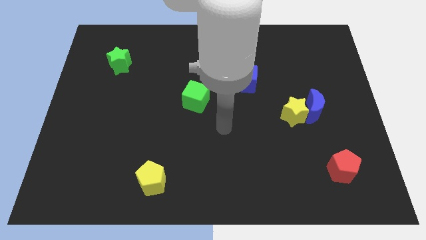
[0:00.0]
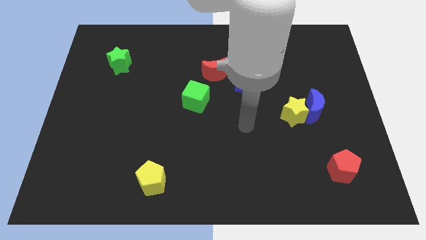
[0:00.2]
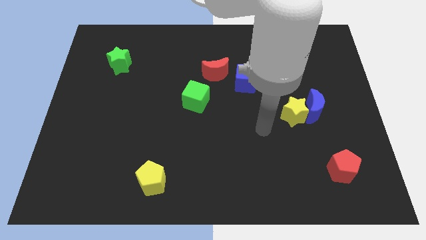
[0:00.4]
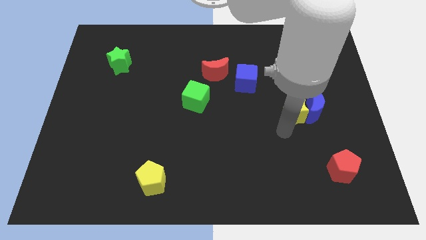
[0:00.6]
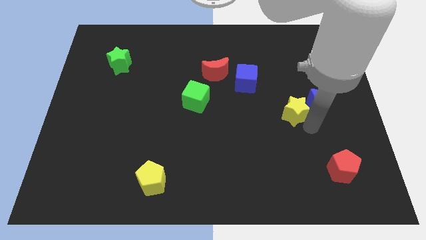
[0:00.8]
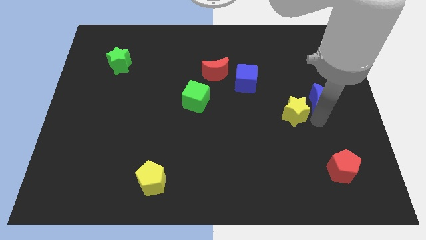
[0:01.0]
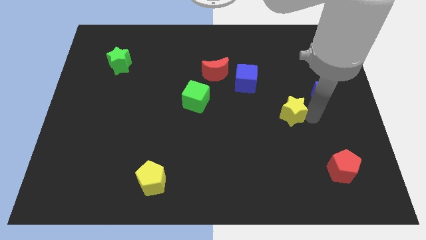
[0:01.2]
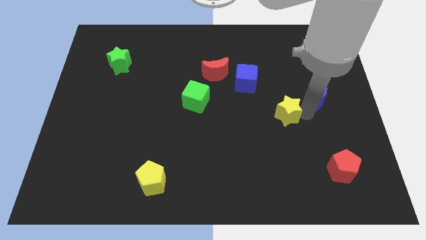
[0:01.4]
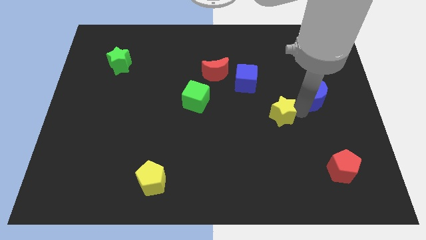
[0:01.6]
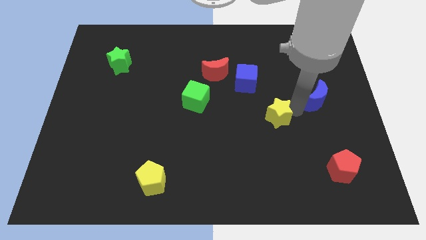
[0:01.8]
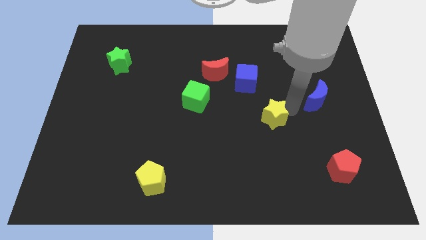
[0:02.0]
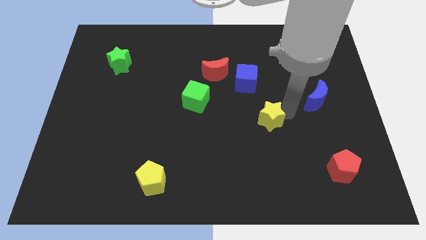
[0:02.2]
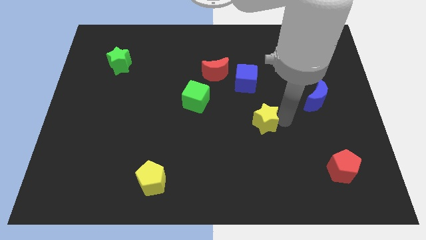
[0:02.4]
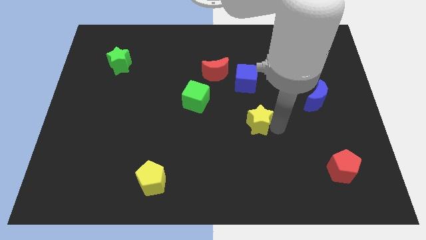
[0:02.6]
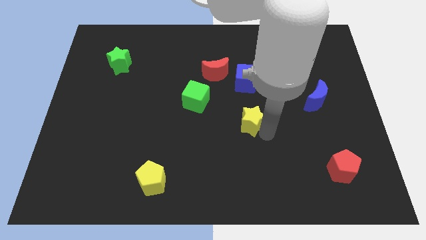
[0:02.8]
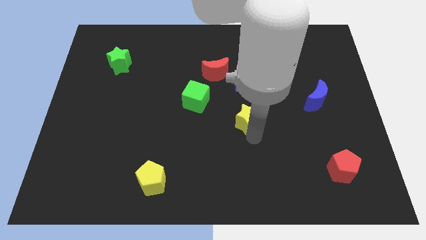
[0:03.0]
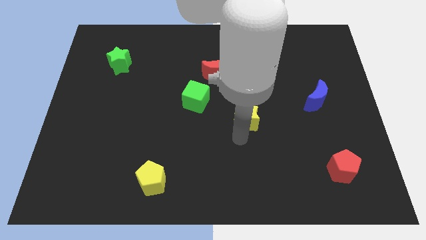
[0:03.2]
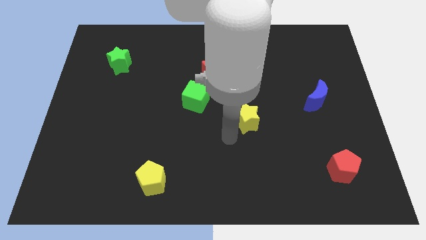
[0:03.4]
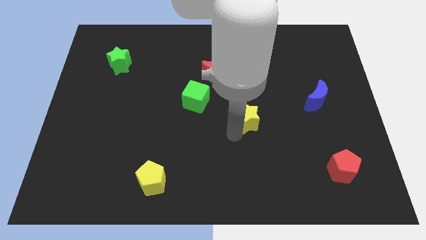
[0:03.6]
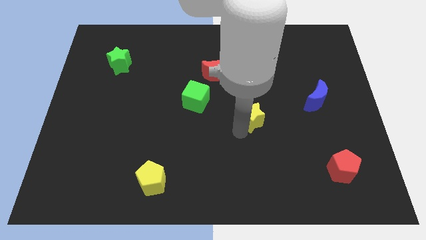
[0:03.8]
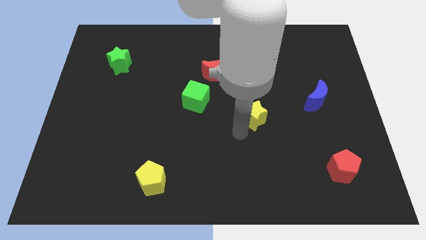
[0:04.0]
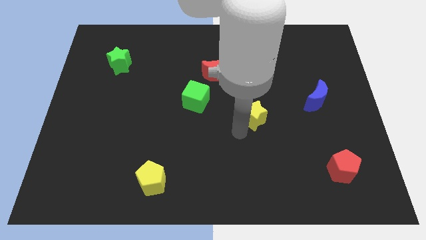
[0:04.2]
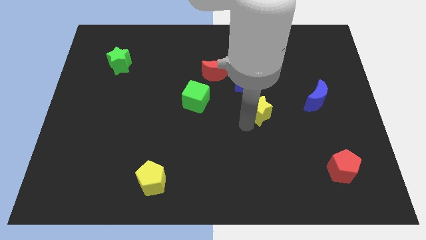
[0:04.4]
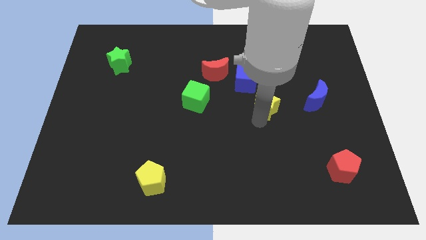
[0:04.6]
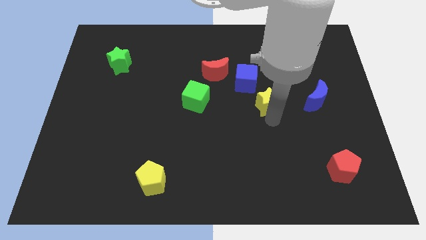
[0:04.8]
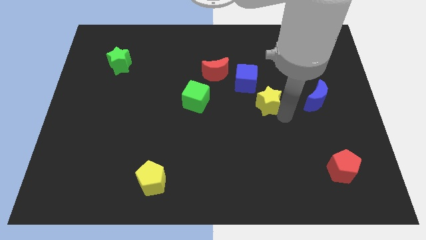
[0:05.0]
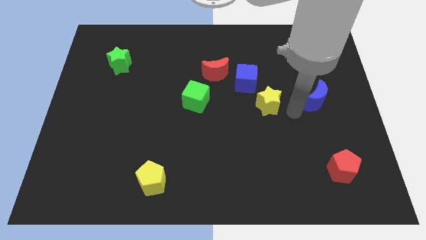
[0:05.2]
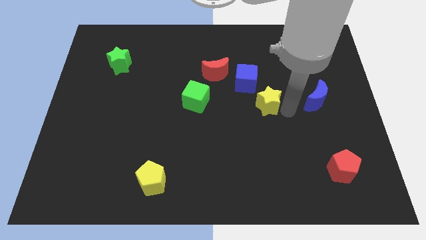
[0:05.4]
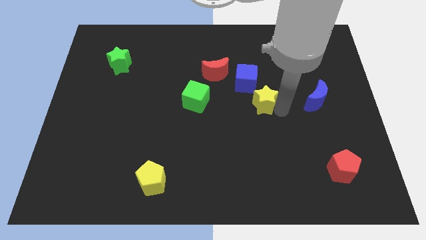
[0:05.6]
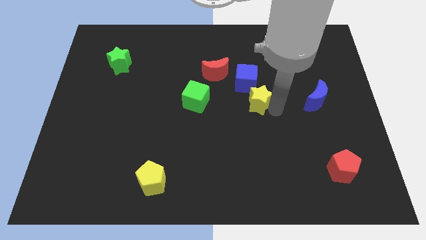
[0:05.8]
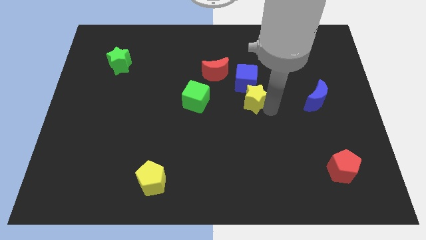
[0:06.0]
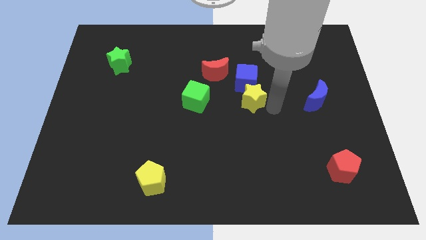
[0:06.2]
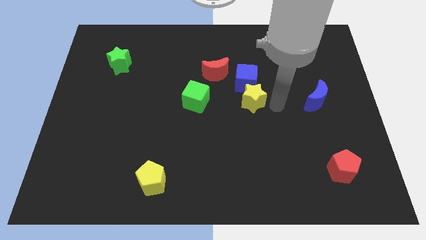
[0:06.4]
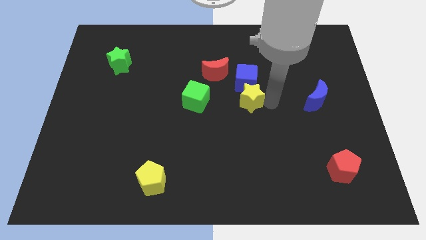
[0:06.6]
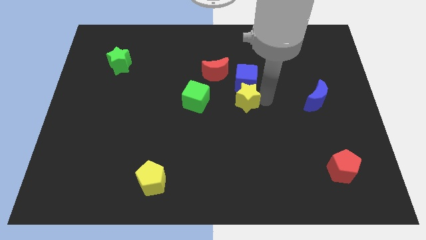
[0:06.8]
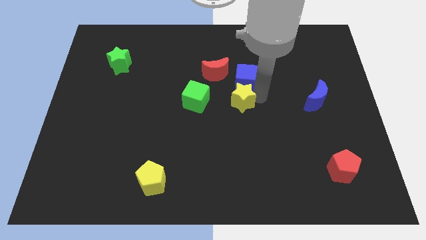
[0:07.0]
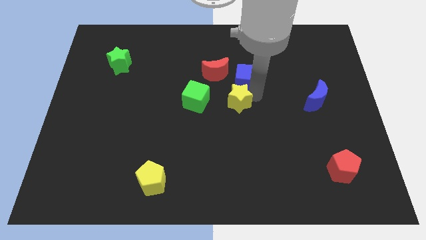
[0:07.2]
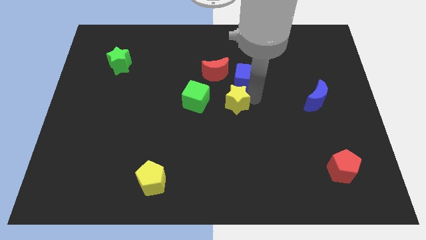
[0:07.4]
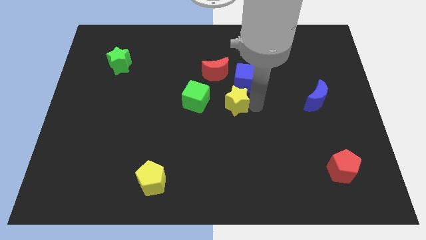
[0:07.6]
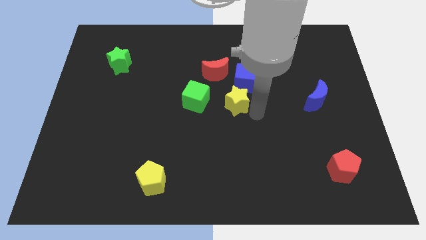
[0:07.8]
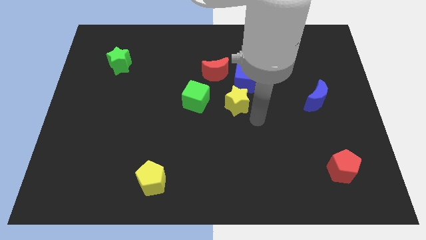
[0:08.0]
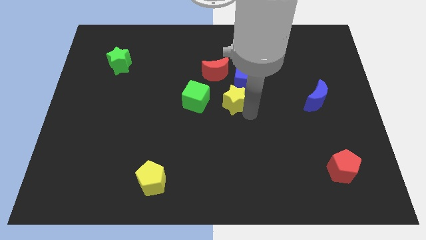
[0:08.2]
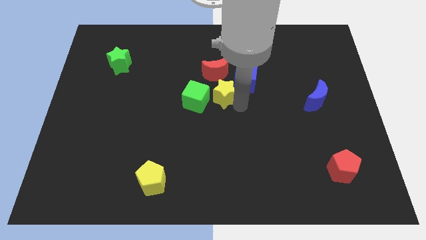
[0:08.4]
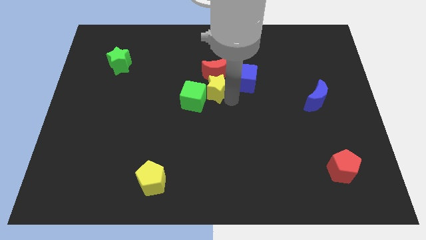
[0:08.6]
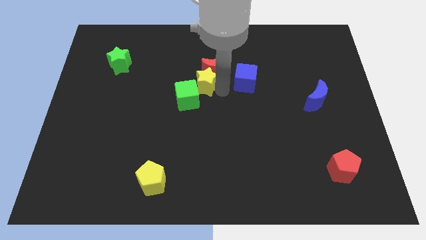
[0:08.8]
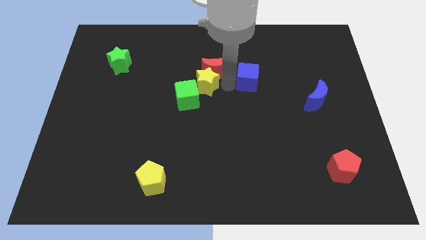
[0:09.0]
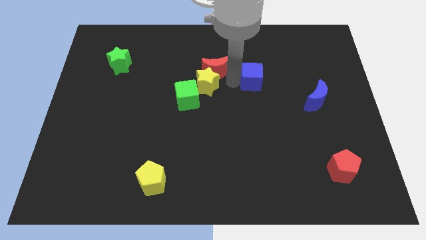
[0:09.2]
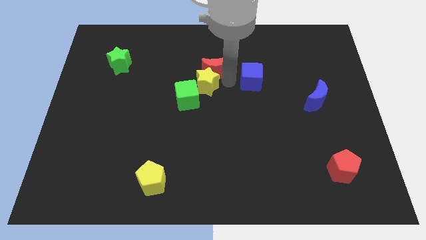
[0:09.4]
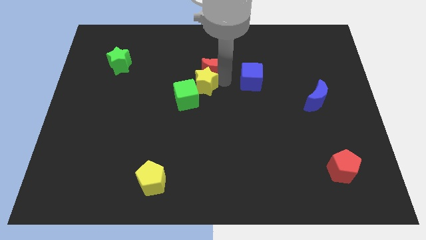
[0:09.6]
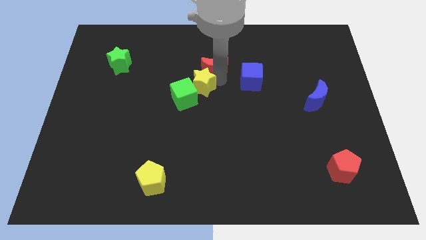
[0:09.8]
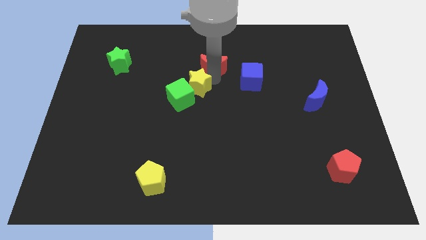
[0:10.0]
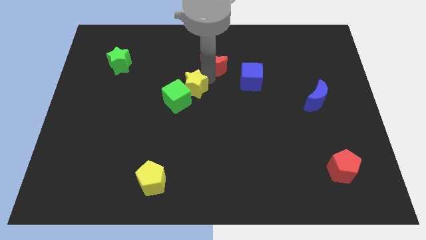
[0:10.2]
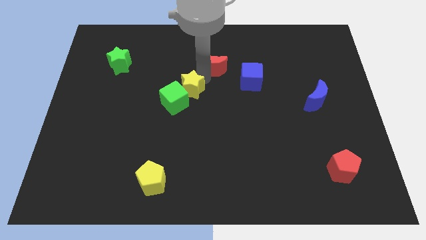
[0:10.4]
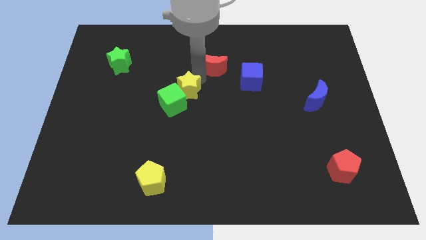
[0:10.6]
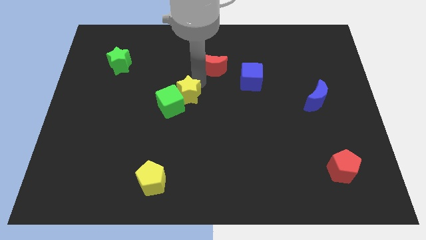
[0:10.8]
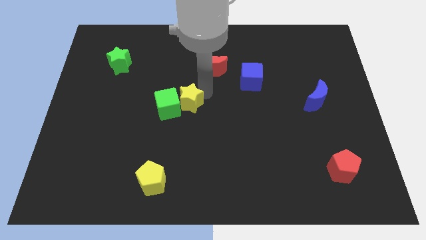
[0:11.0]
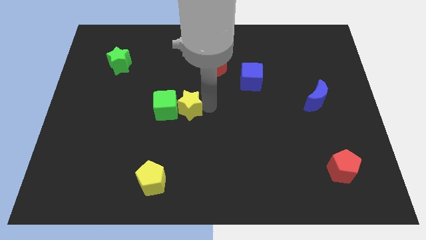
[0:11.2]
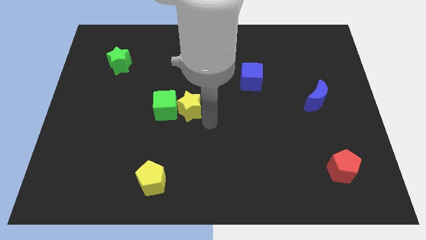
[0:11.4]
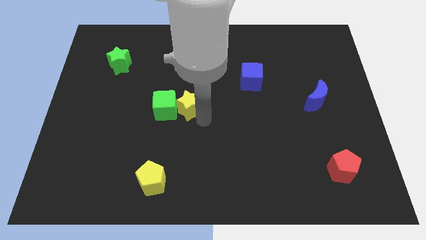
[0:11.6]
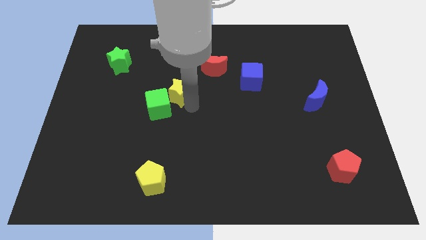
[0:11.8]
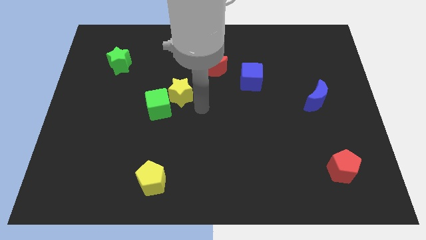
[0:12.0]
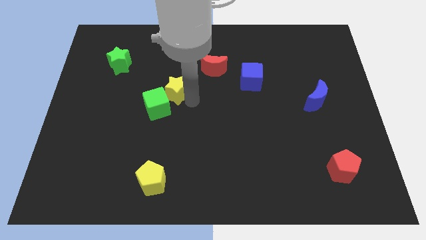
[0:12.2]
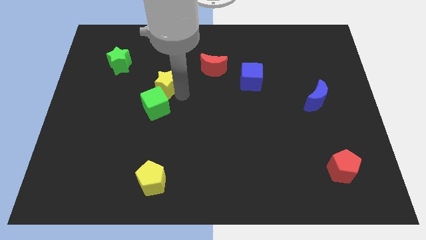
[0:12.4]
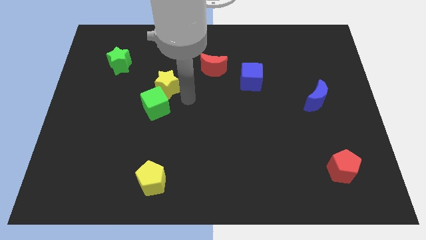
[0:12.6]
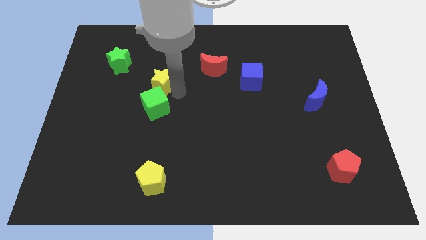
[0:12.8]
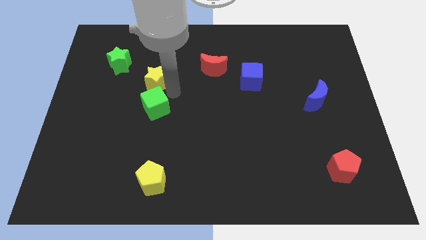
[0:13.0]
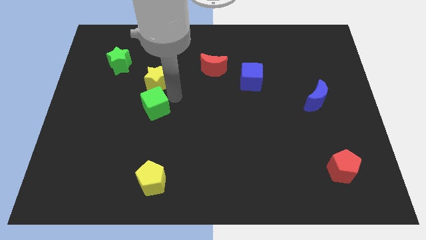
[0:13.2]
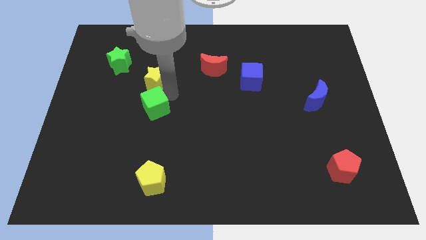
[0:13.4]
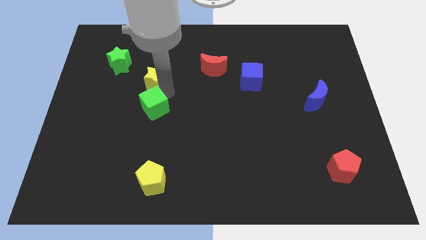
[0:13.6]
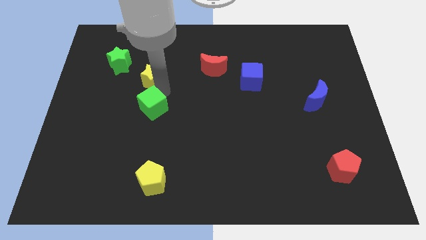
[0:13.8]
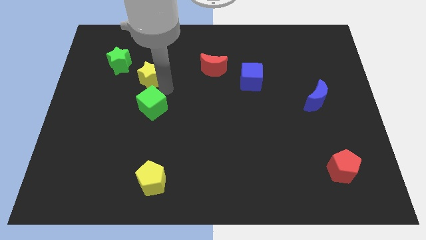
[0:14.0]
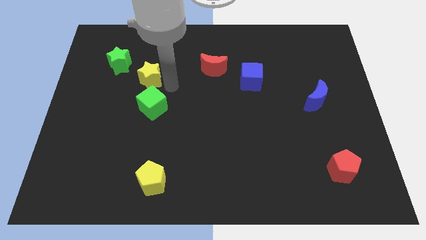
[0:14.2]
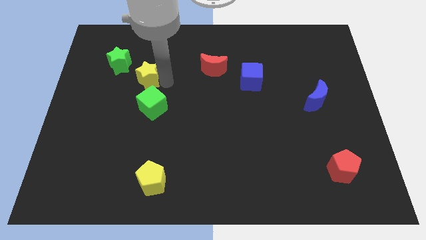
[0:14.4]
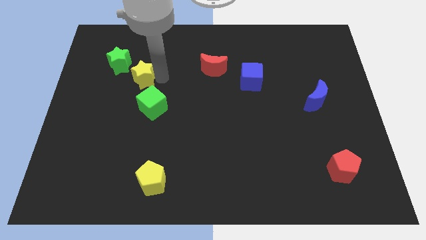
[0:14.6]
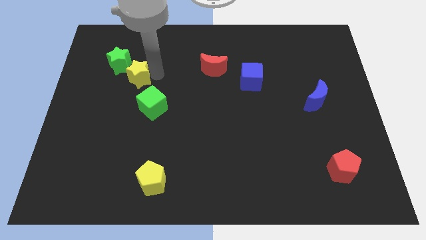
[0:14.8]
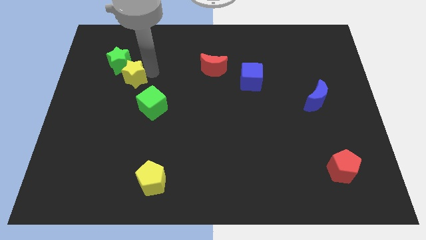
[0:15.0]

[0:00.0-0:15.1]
put the yellow star close to the green star
